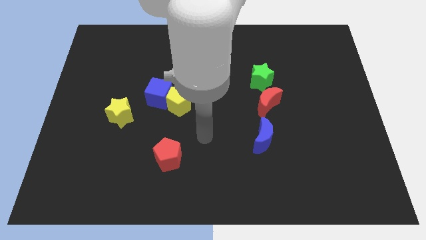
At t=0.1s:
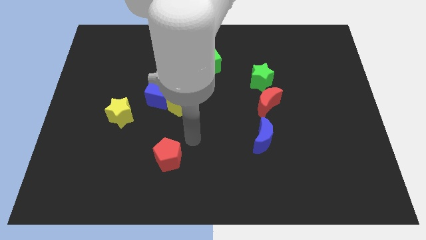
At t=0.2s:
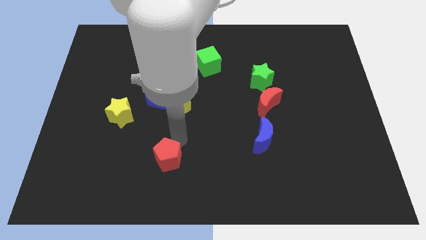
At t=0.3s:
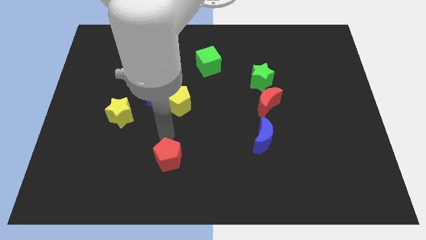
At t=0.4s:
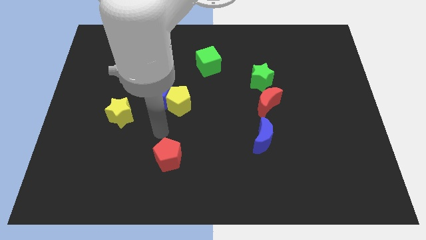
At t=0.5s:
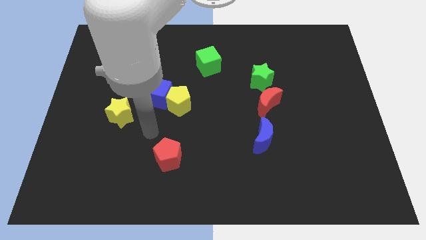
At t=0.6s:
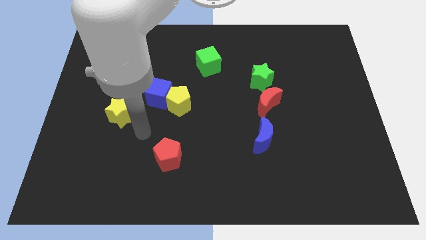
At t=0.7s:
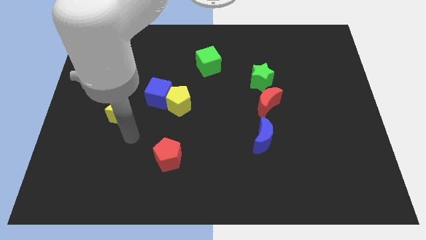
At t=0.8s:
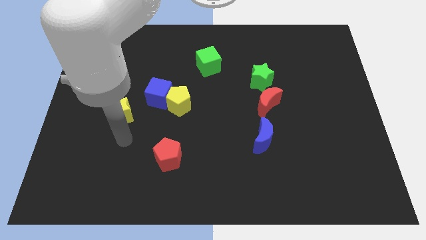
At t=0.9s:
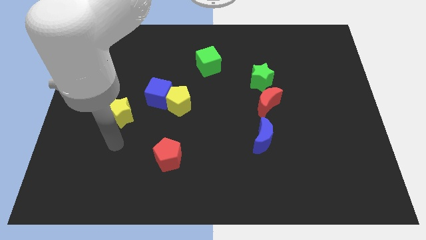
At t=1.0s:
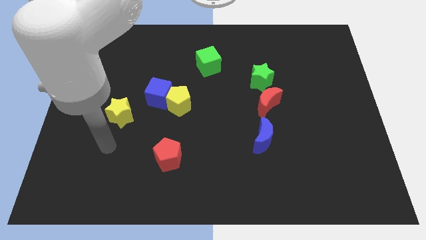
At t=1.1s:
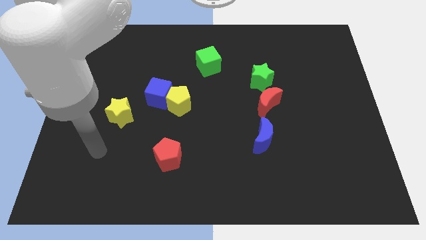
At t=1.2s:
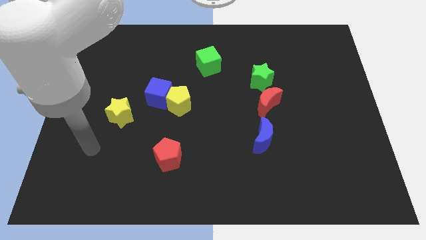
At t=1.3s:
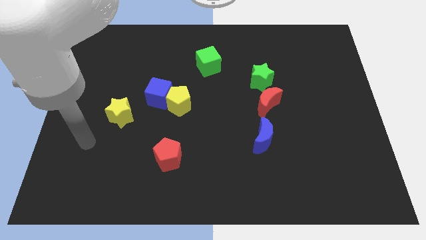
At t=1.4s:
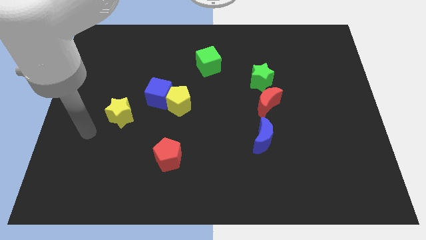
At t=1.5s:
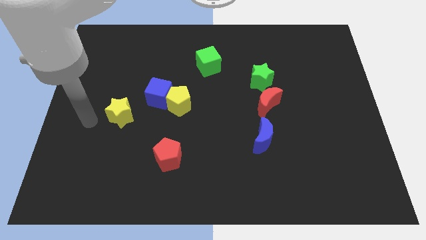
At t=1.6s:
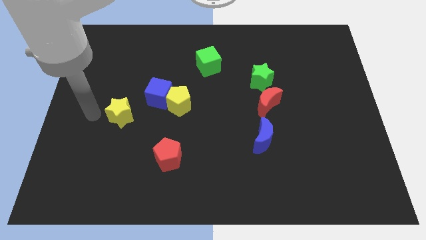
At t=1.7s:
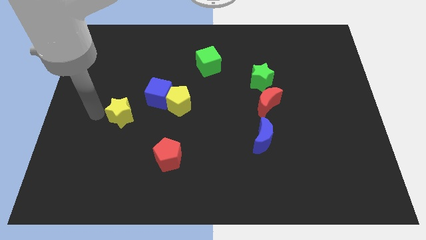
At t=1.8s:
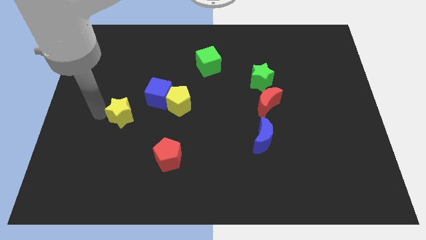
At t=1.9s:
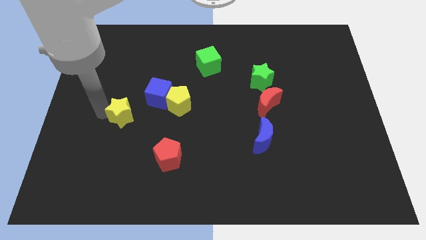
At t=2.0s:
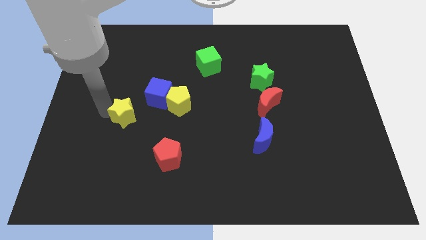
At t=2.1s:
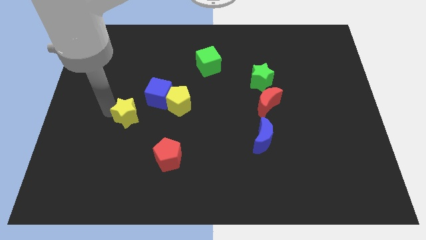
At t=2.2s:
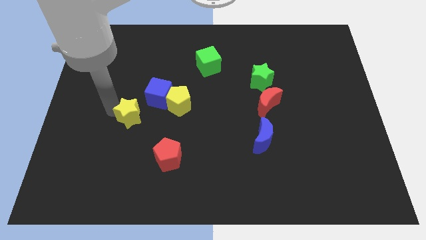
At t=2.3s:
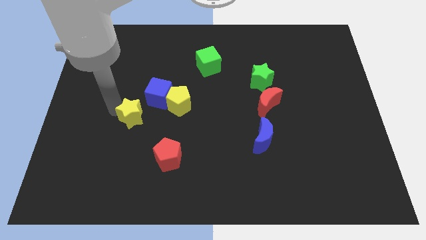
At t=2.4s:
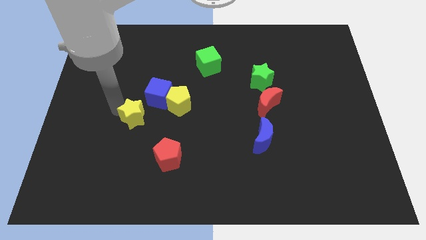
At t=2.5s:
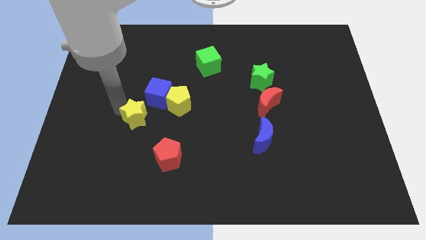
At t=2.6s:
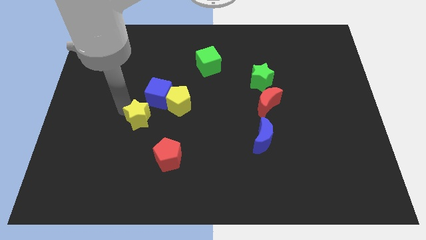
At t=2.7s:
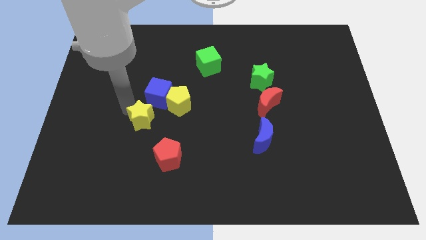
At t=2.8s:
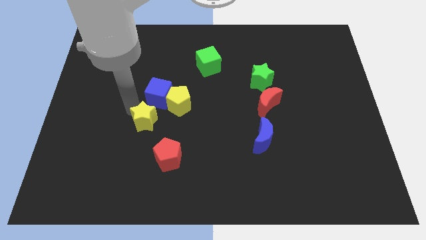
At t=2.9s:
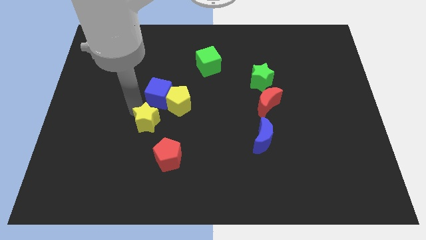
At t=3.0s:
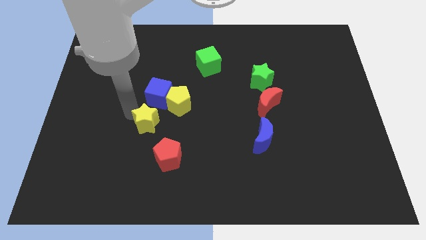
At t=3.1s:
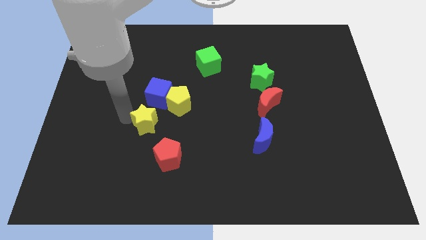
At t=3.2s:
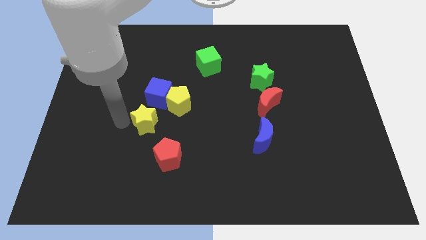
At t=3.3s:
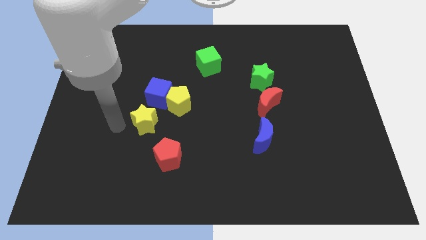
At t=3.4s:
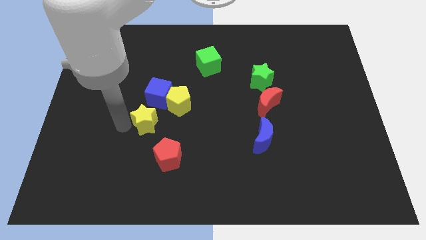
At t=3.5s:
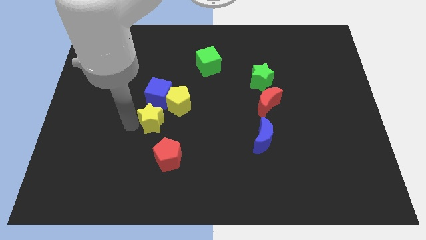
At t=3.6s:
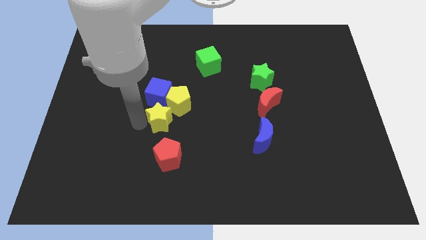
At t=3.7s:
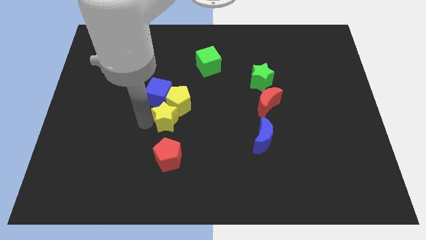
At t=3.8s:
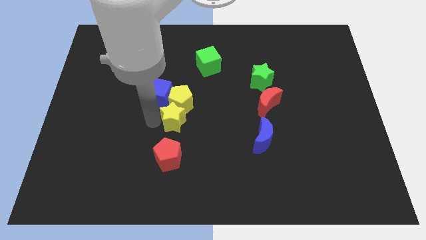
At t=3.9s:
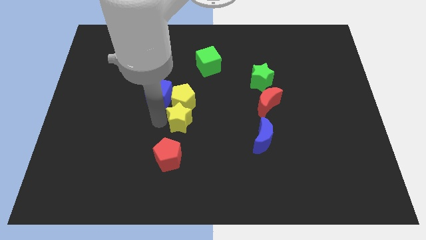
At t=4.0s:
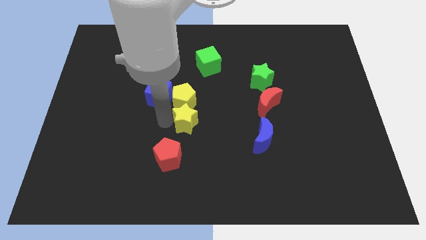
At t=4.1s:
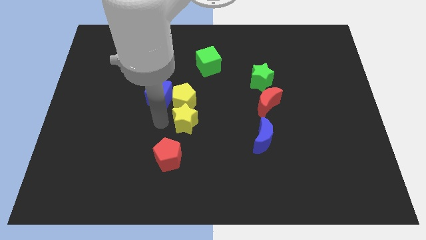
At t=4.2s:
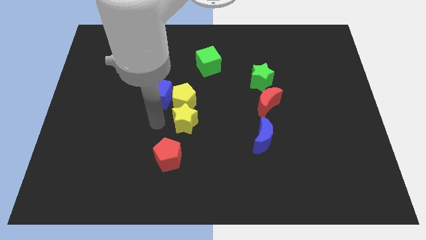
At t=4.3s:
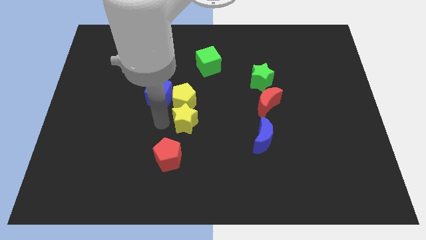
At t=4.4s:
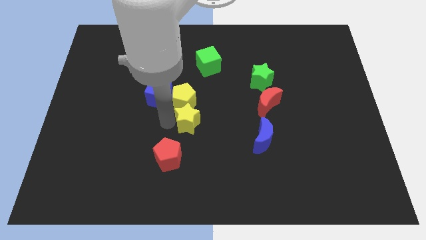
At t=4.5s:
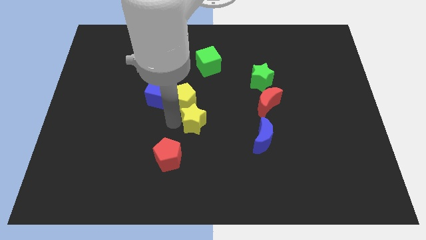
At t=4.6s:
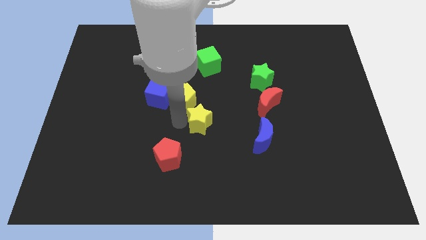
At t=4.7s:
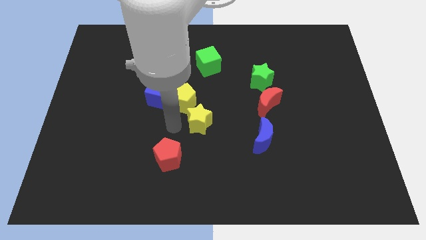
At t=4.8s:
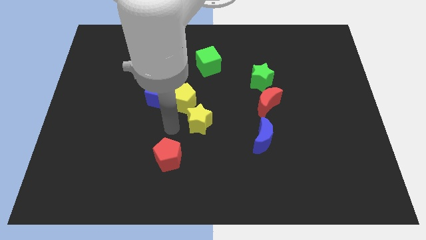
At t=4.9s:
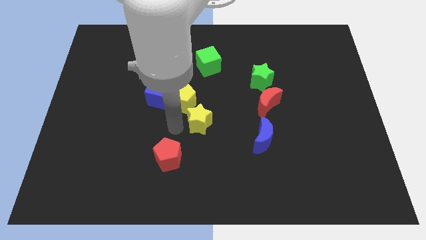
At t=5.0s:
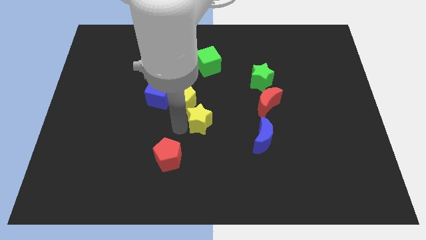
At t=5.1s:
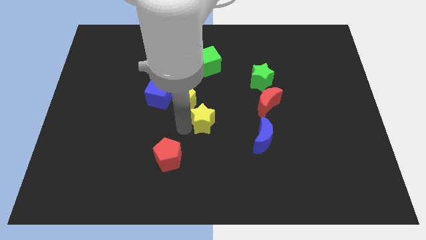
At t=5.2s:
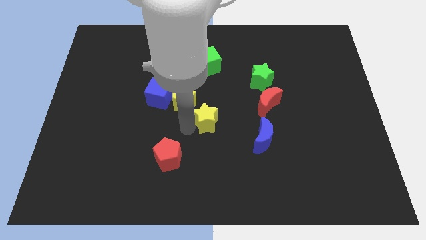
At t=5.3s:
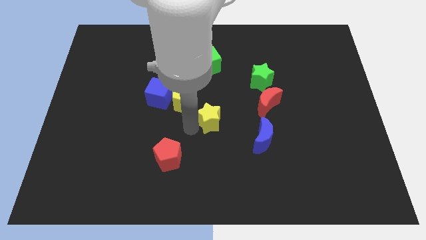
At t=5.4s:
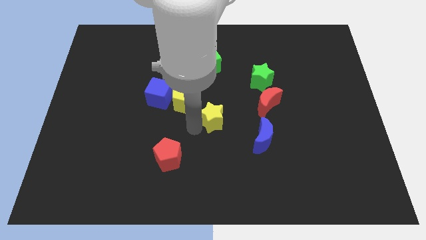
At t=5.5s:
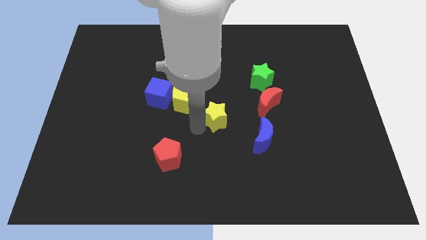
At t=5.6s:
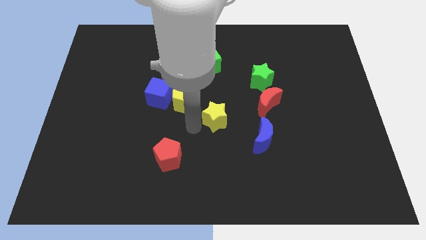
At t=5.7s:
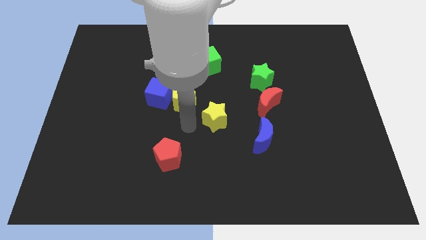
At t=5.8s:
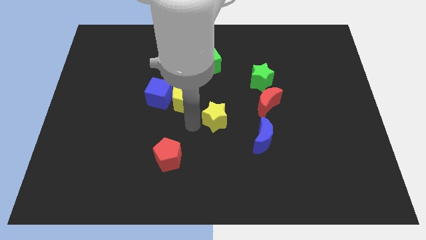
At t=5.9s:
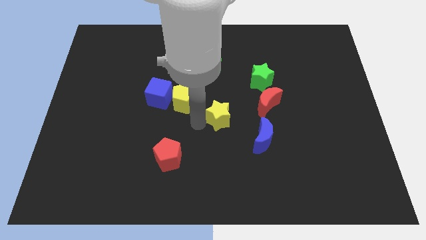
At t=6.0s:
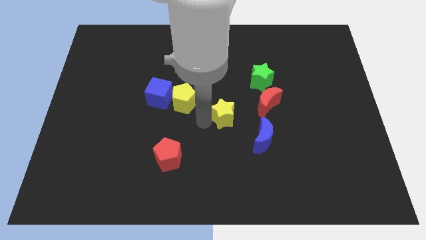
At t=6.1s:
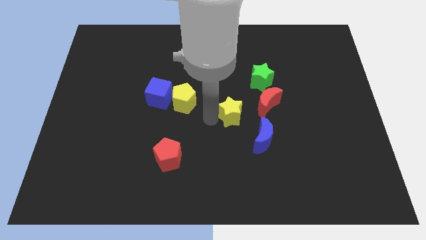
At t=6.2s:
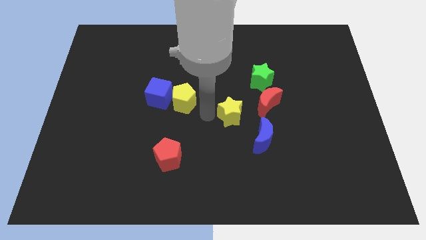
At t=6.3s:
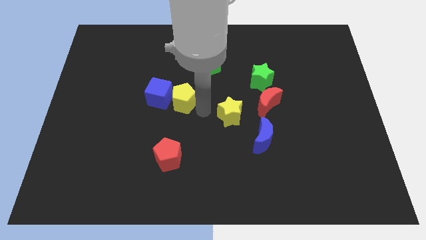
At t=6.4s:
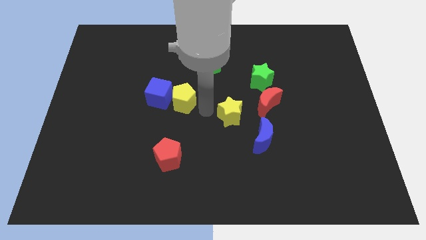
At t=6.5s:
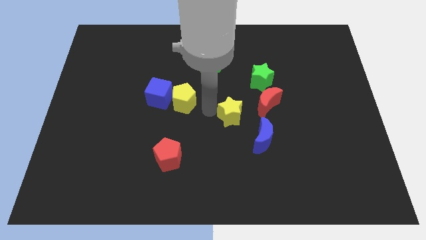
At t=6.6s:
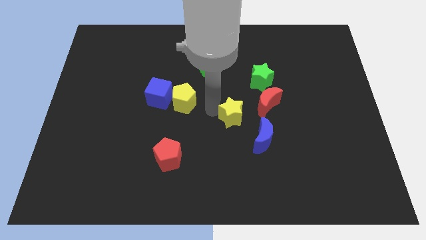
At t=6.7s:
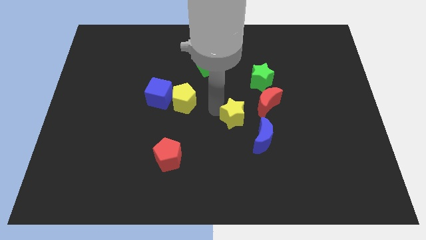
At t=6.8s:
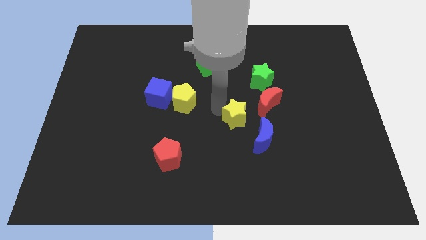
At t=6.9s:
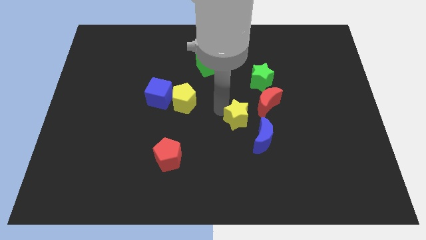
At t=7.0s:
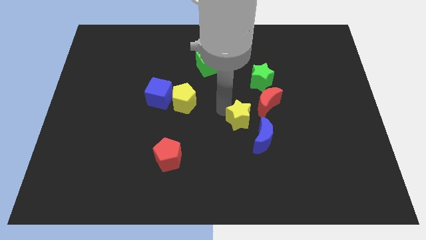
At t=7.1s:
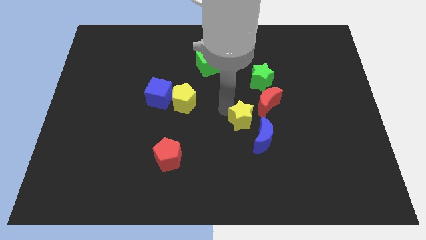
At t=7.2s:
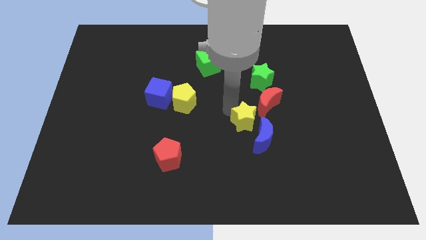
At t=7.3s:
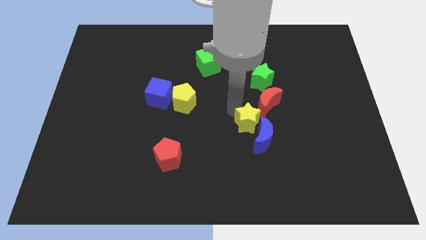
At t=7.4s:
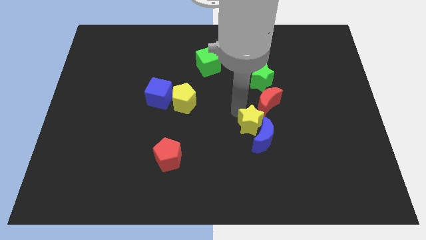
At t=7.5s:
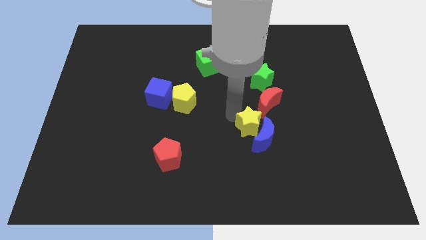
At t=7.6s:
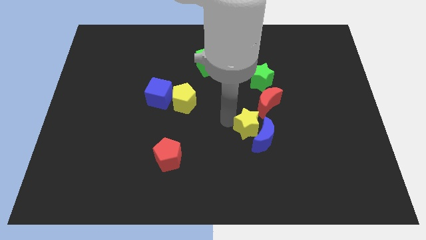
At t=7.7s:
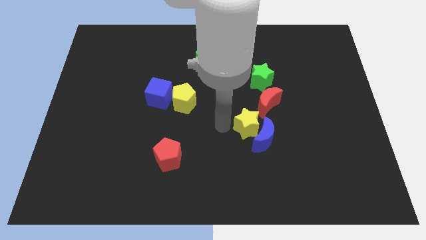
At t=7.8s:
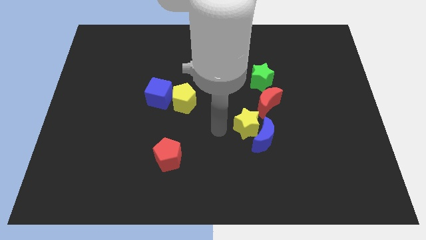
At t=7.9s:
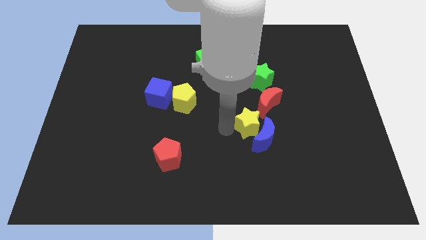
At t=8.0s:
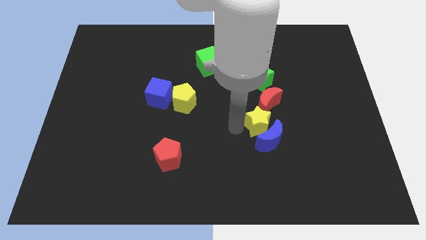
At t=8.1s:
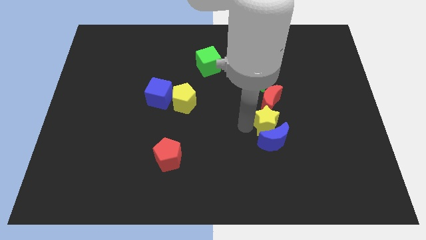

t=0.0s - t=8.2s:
move the yellow star diagonally up and to the right of the blue moon
